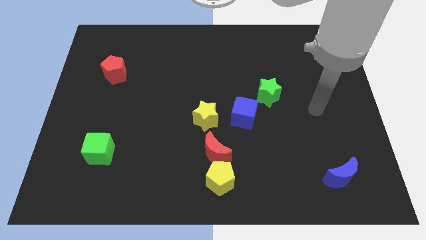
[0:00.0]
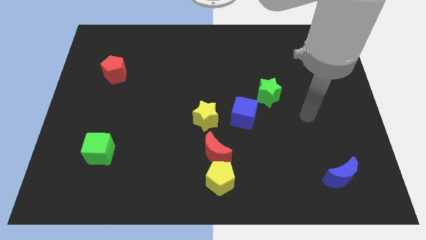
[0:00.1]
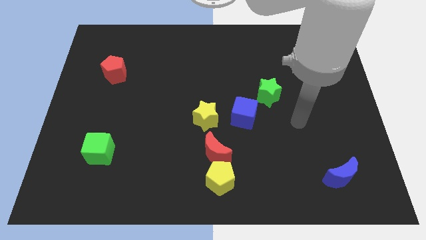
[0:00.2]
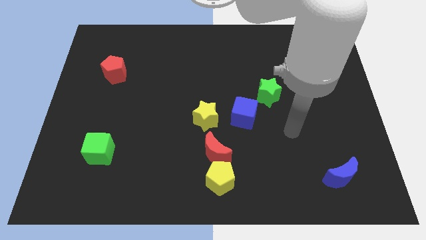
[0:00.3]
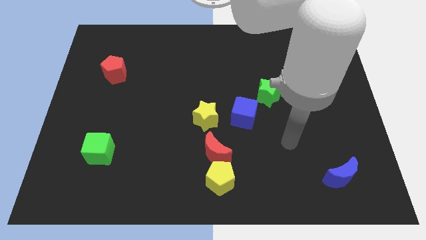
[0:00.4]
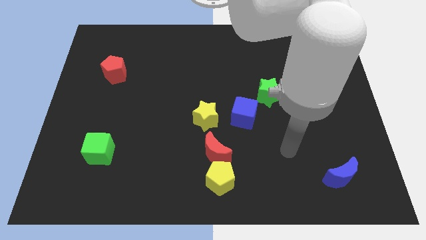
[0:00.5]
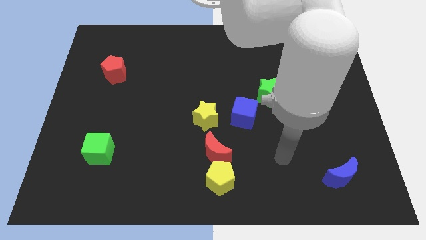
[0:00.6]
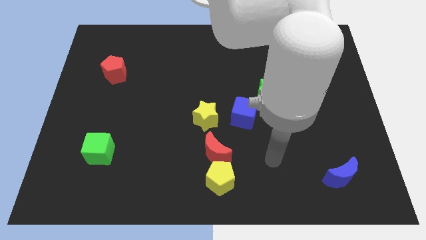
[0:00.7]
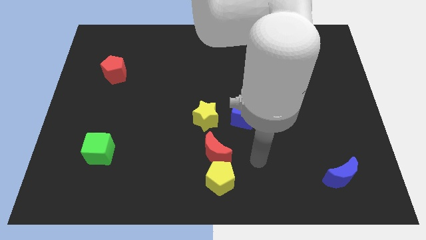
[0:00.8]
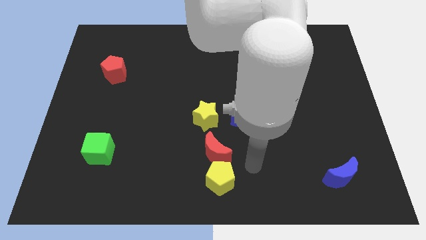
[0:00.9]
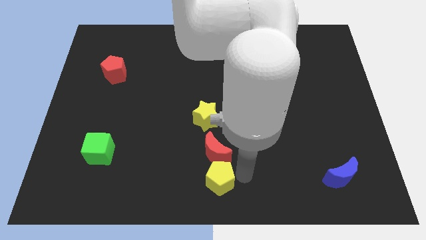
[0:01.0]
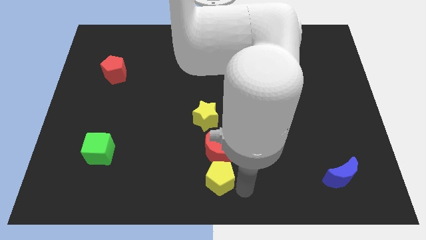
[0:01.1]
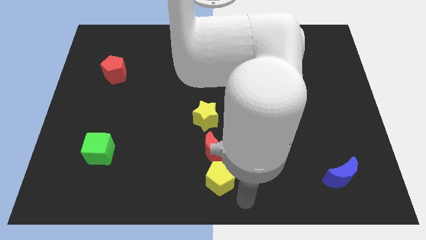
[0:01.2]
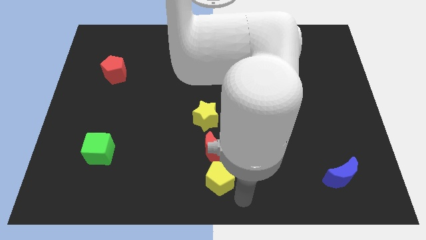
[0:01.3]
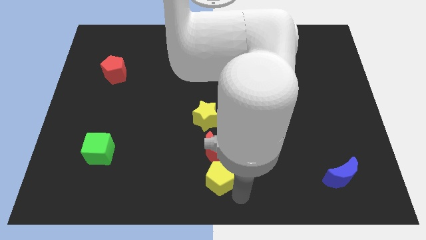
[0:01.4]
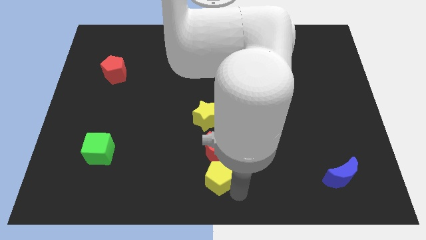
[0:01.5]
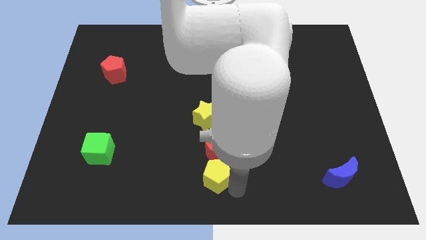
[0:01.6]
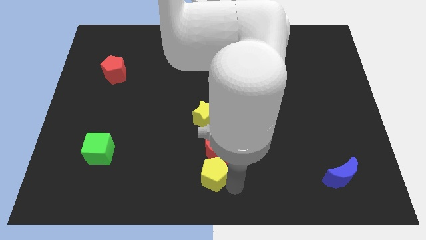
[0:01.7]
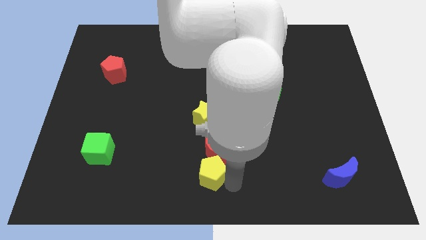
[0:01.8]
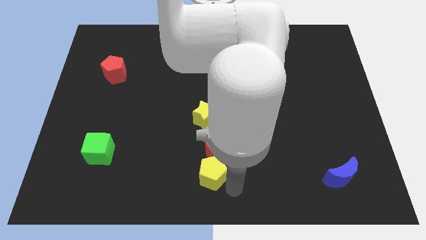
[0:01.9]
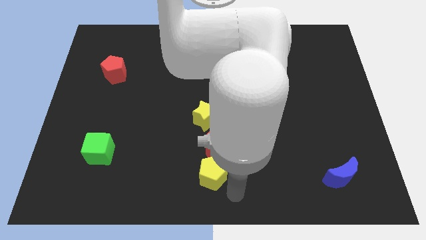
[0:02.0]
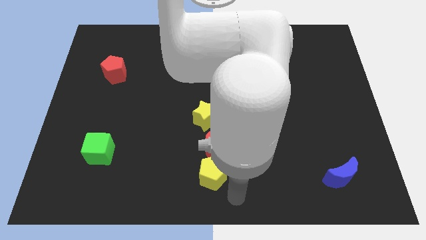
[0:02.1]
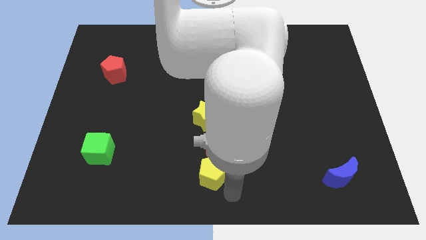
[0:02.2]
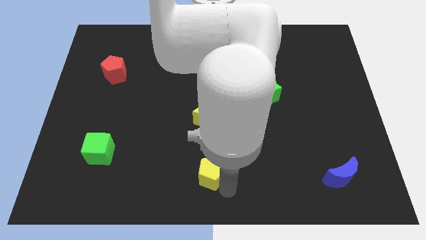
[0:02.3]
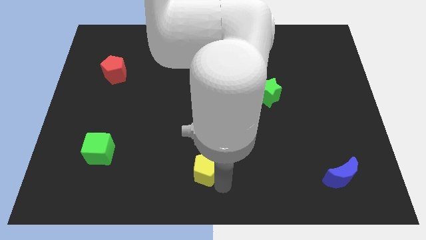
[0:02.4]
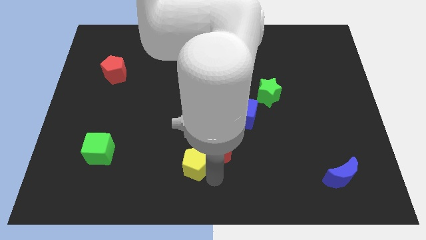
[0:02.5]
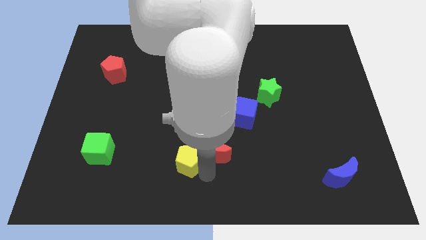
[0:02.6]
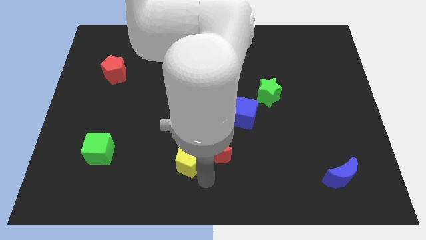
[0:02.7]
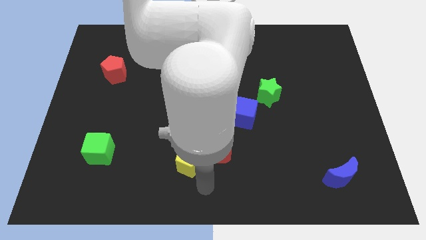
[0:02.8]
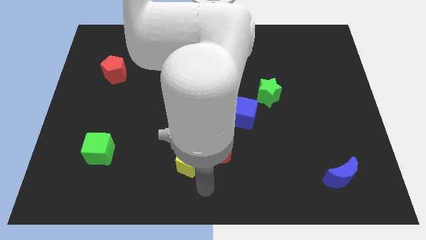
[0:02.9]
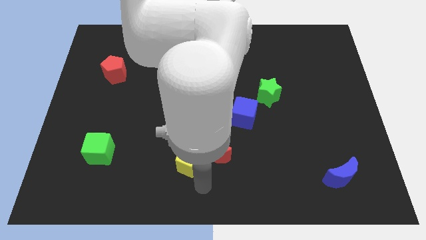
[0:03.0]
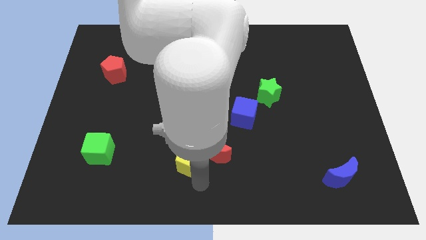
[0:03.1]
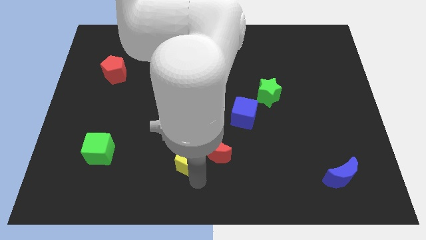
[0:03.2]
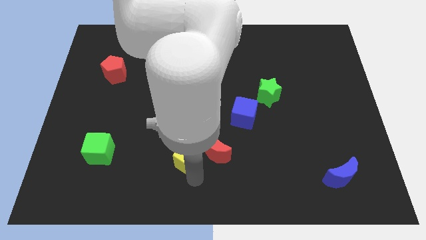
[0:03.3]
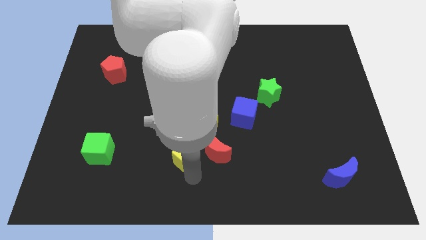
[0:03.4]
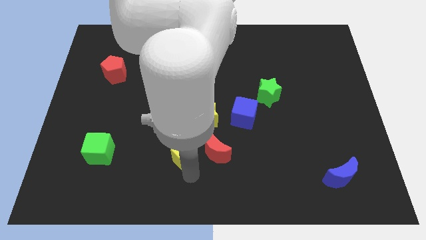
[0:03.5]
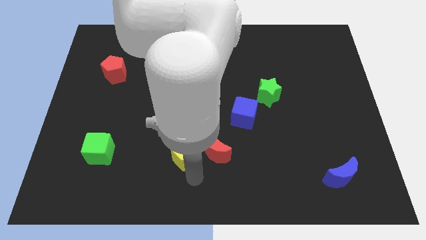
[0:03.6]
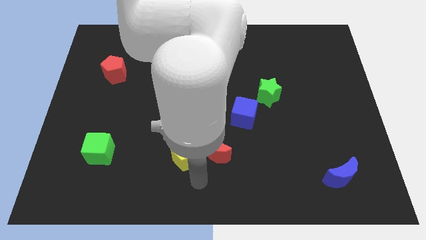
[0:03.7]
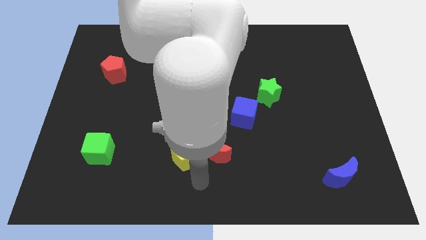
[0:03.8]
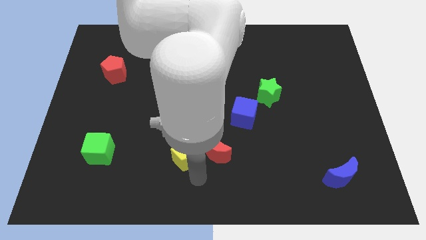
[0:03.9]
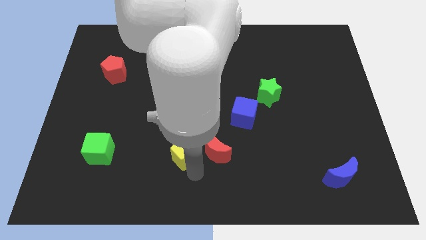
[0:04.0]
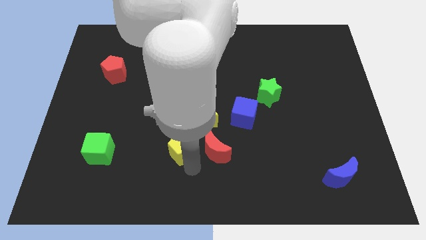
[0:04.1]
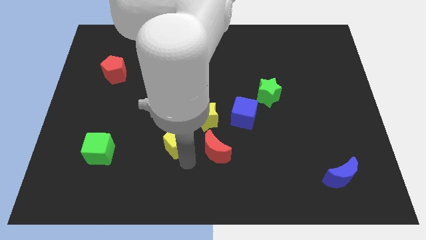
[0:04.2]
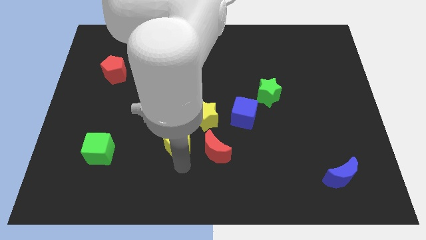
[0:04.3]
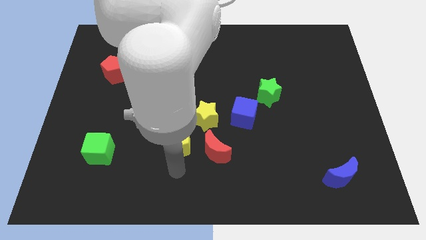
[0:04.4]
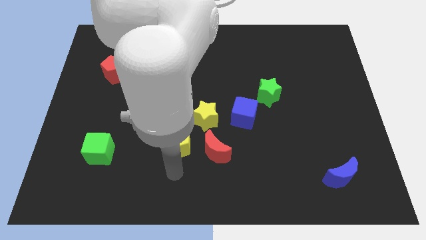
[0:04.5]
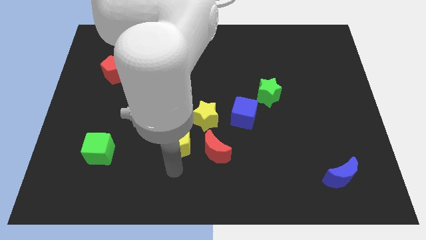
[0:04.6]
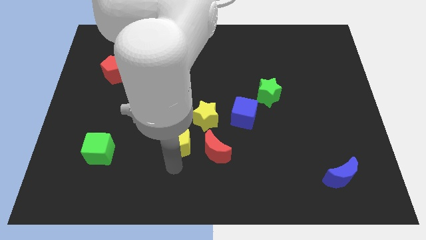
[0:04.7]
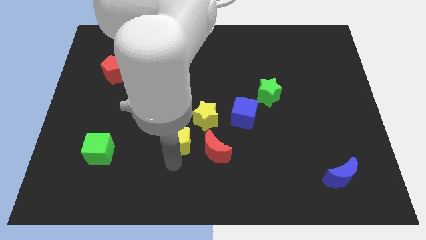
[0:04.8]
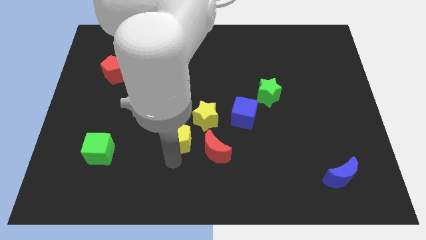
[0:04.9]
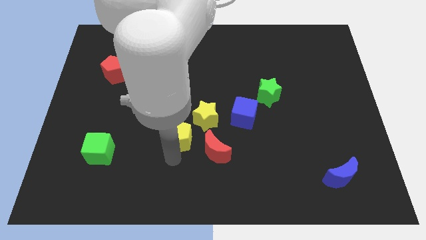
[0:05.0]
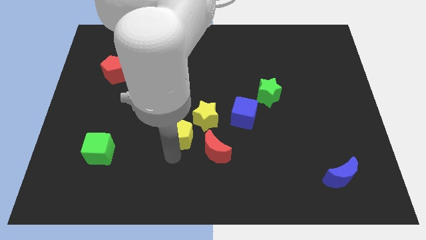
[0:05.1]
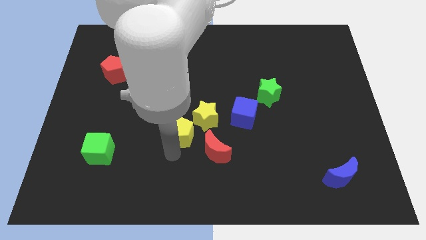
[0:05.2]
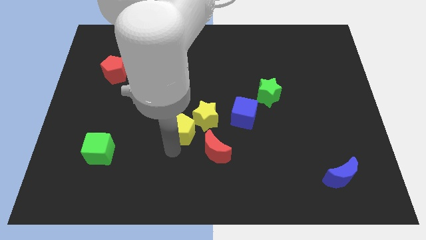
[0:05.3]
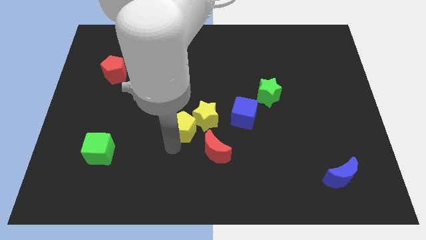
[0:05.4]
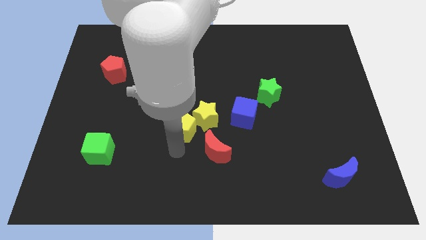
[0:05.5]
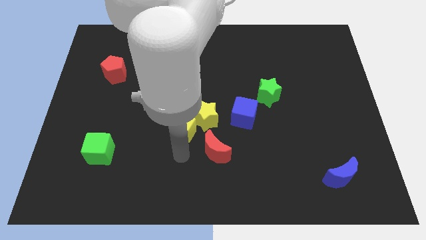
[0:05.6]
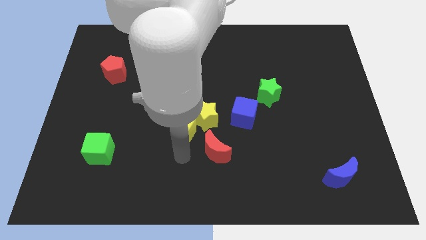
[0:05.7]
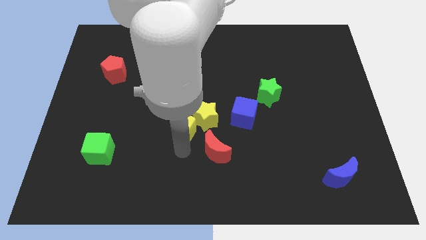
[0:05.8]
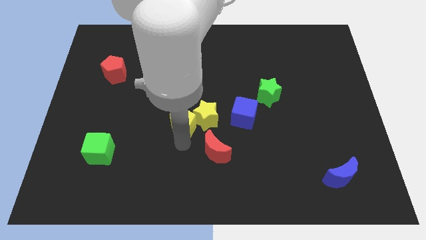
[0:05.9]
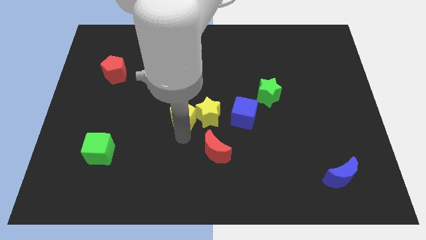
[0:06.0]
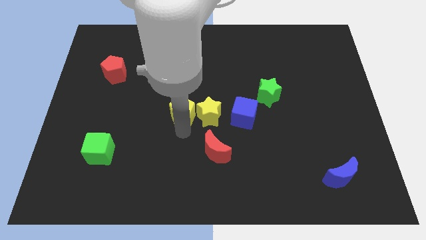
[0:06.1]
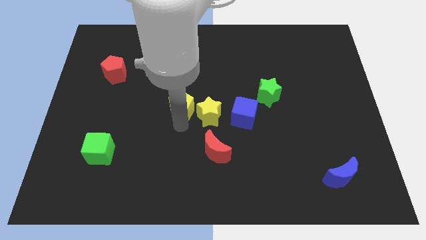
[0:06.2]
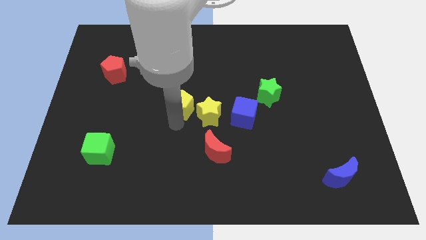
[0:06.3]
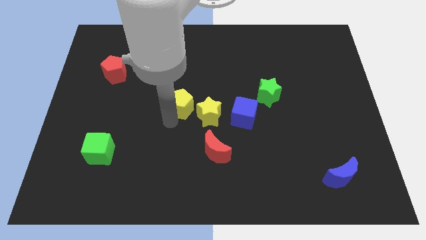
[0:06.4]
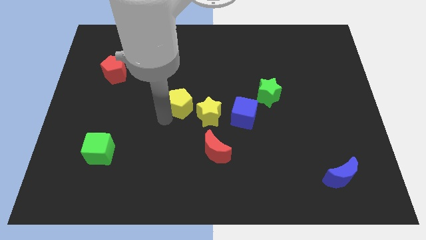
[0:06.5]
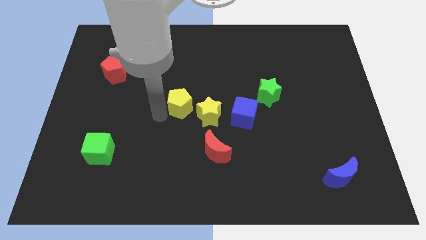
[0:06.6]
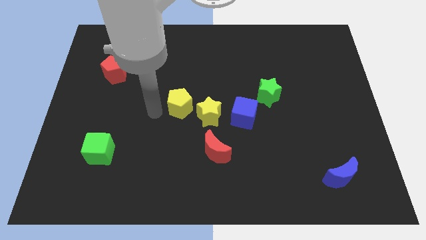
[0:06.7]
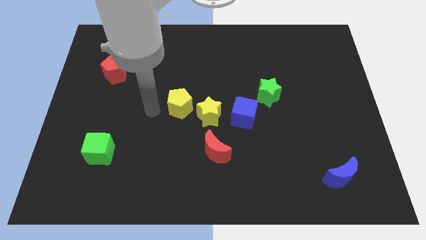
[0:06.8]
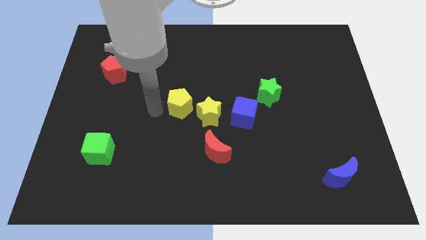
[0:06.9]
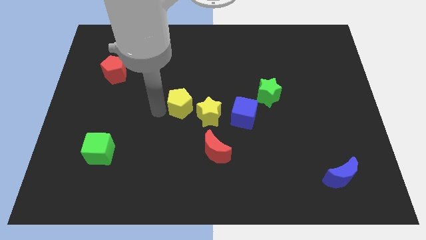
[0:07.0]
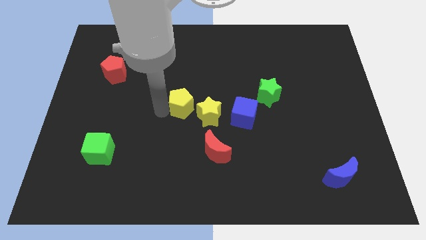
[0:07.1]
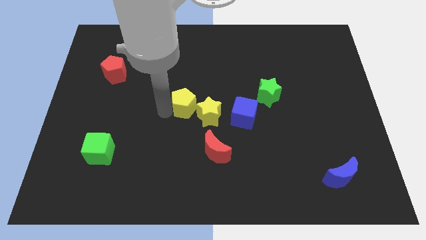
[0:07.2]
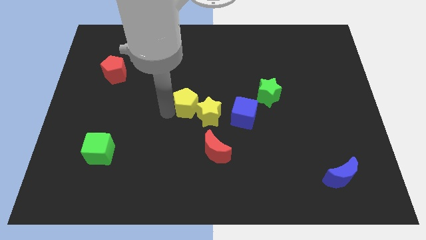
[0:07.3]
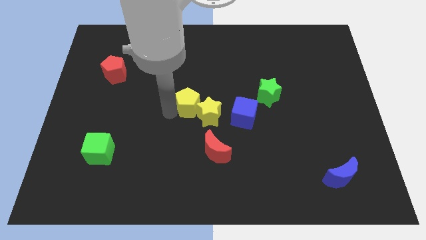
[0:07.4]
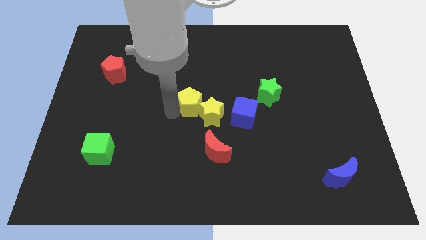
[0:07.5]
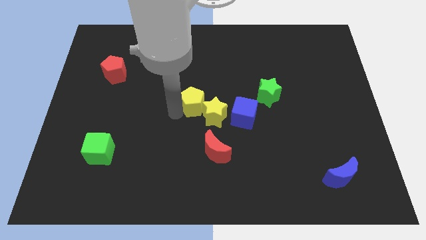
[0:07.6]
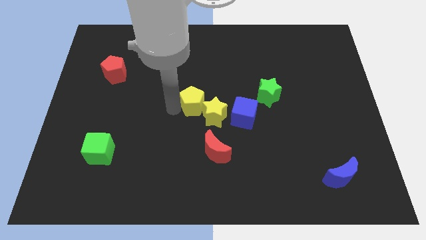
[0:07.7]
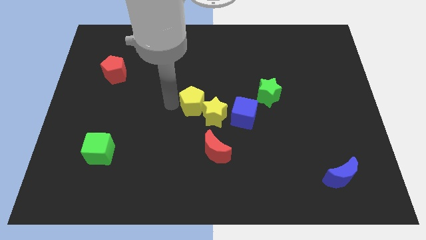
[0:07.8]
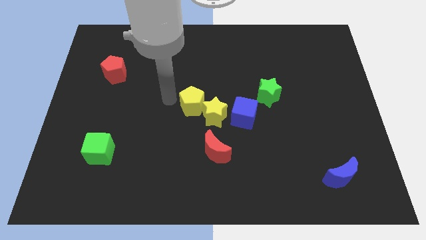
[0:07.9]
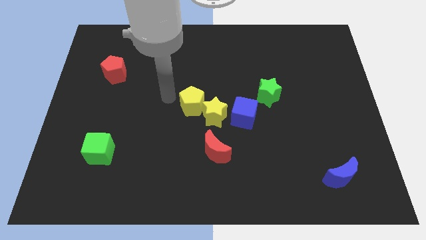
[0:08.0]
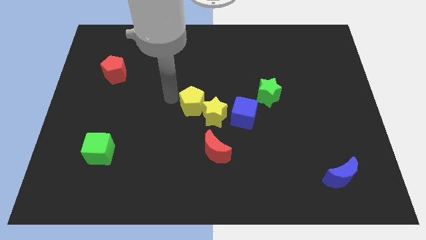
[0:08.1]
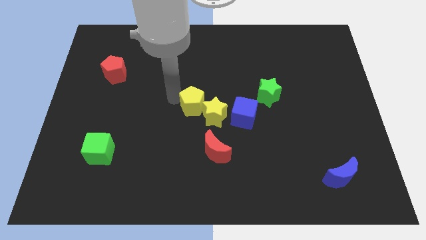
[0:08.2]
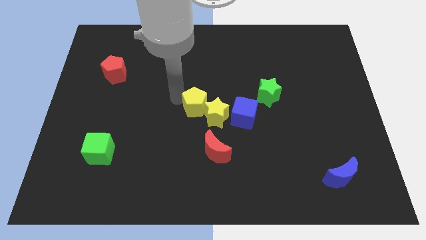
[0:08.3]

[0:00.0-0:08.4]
slide the yellow pentagon to the top of the red moon
